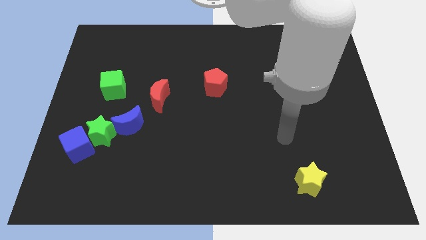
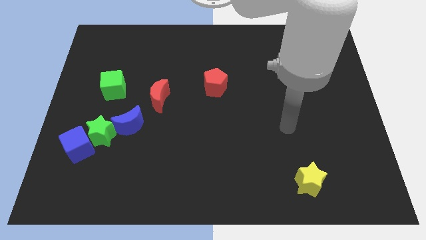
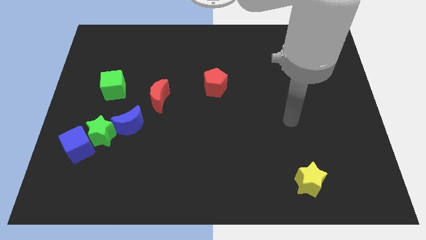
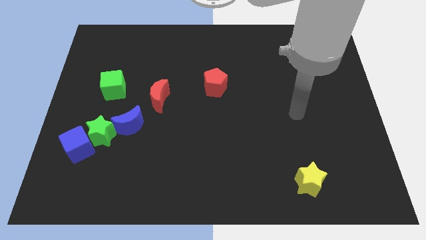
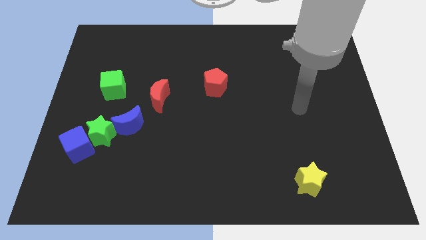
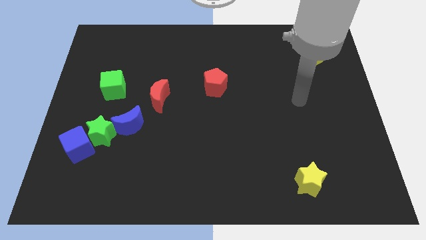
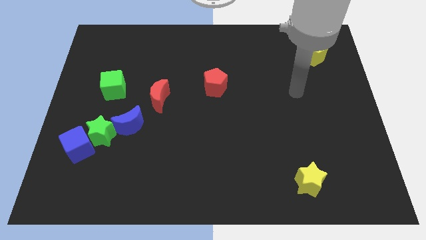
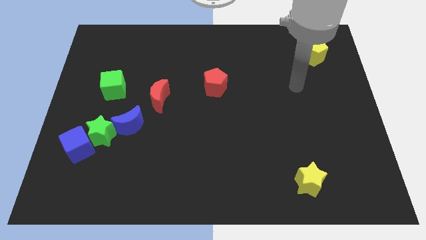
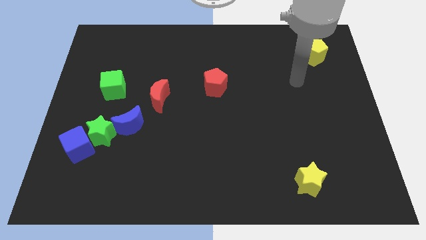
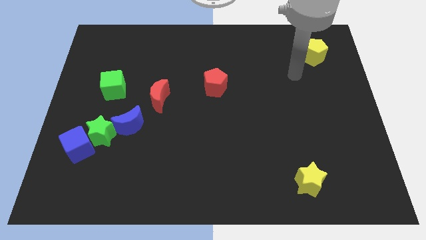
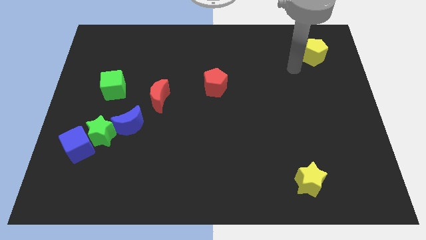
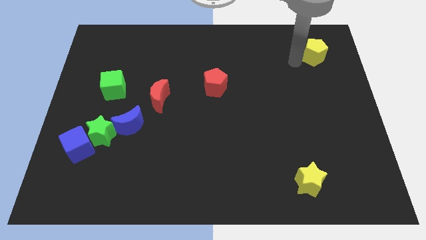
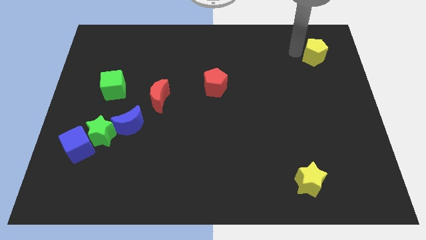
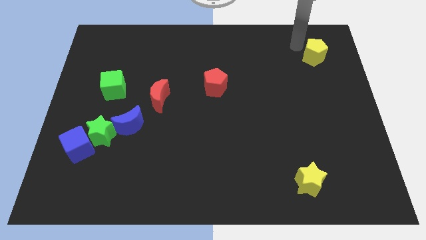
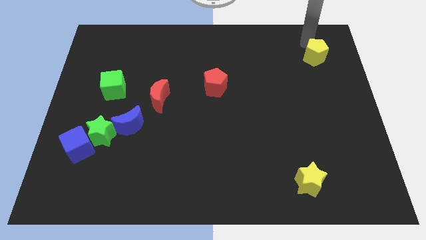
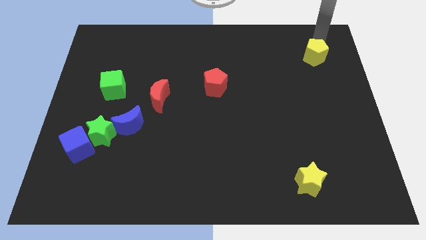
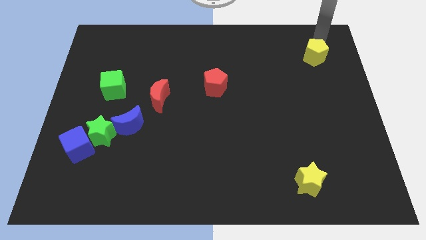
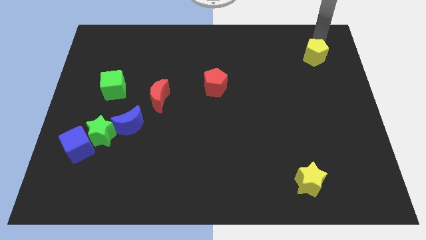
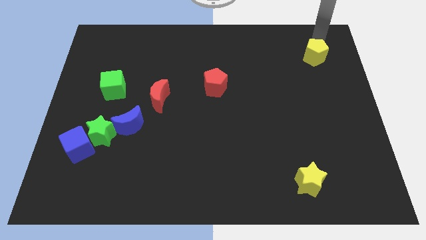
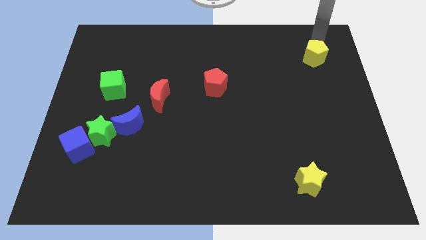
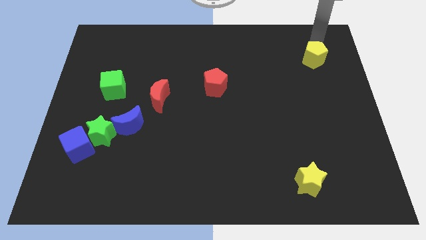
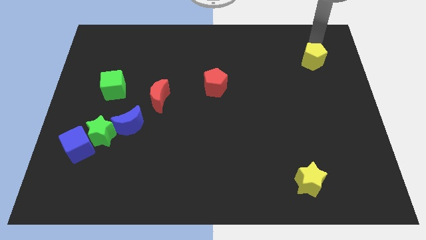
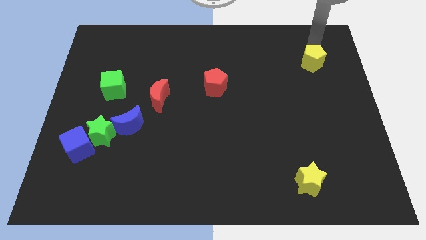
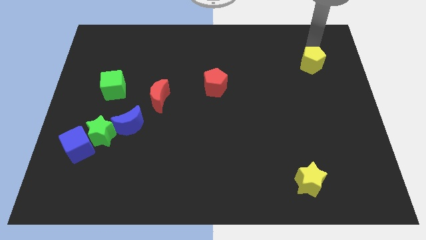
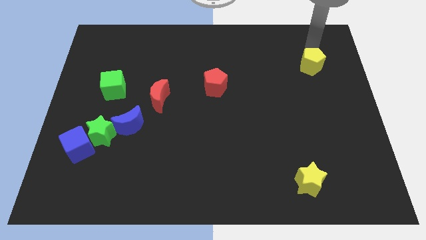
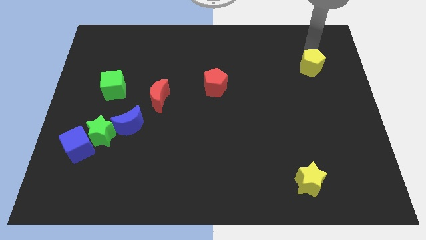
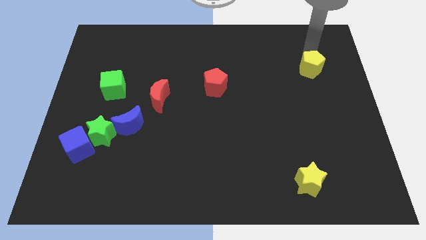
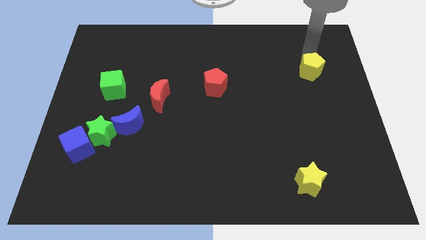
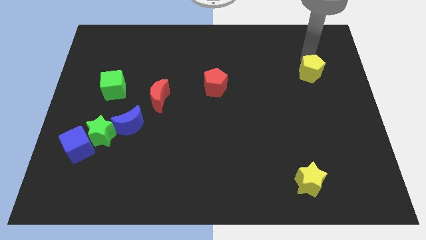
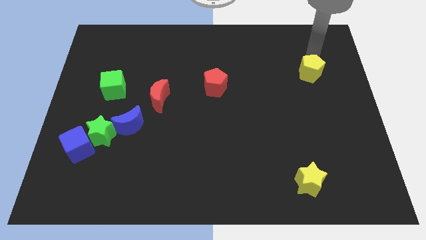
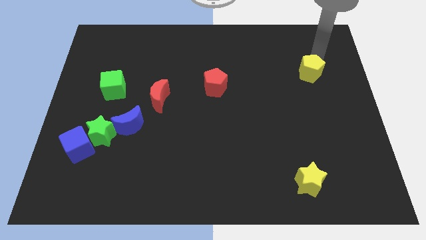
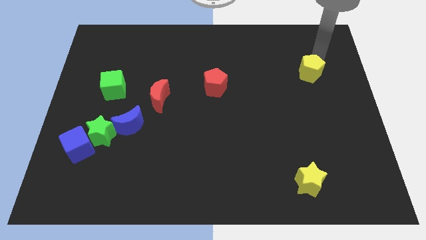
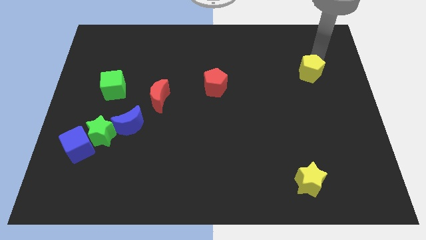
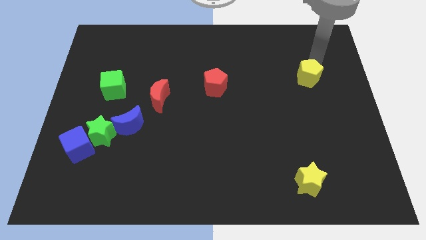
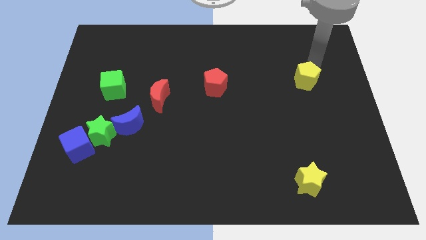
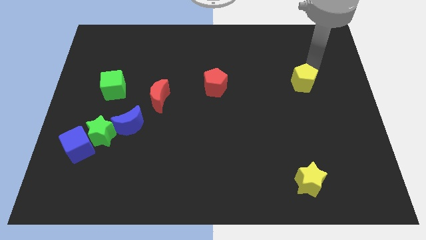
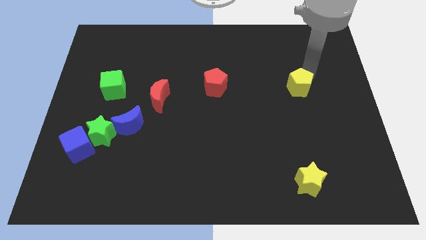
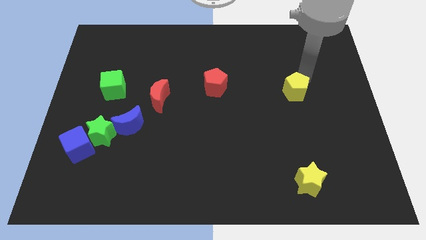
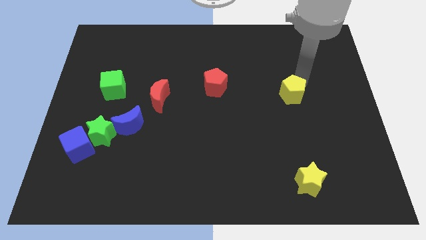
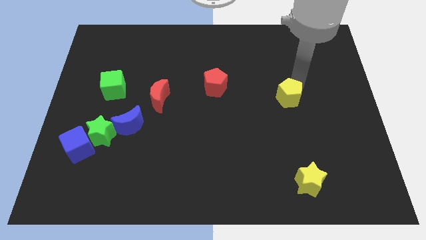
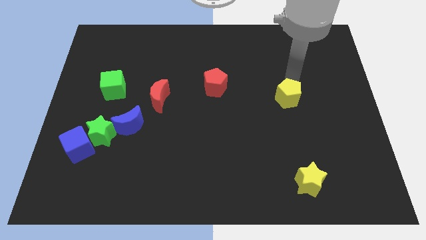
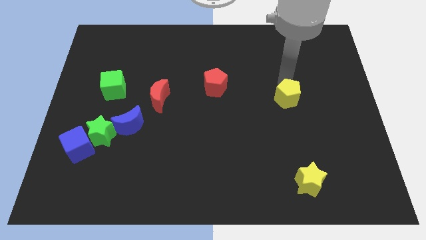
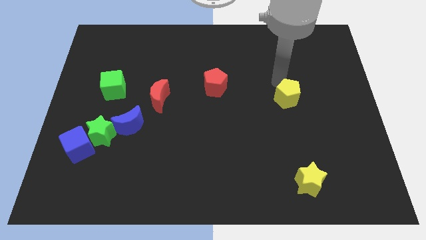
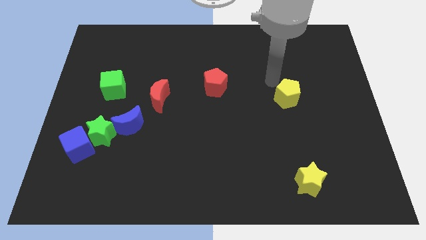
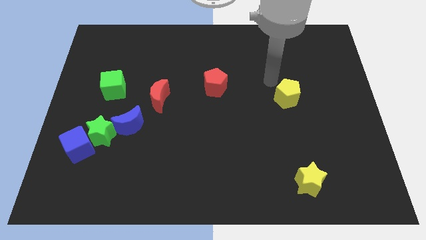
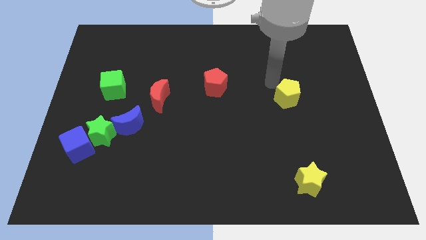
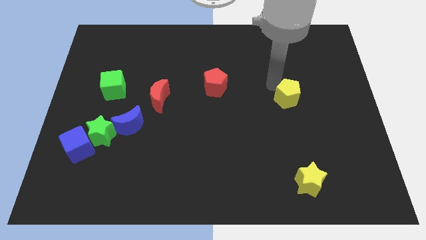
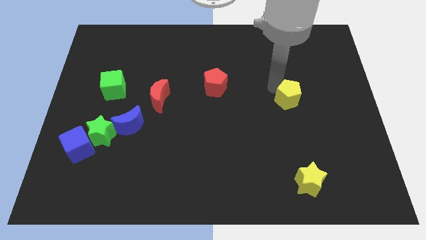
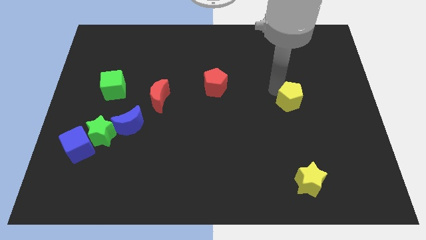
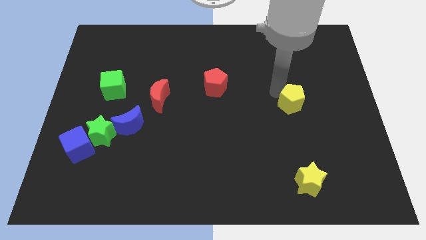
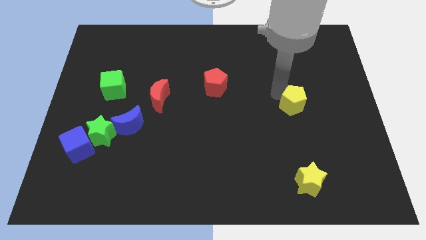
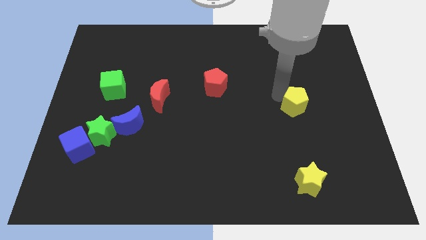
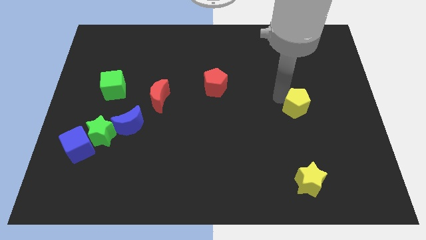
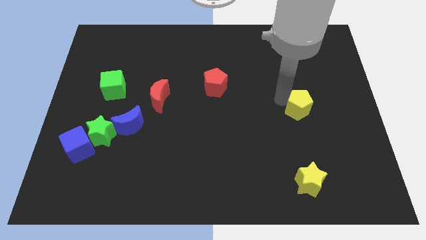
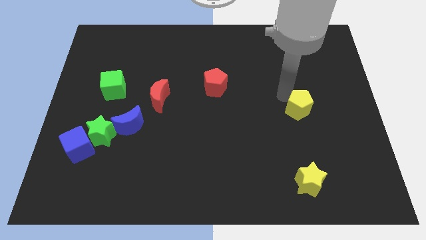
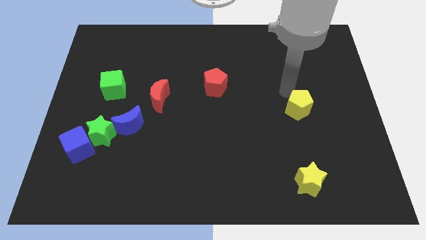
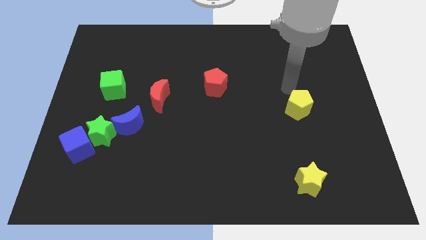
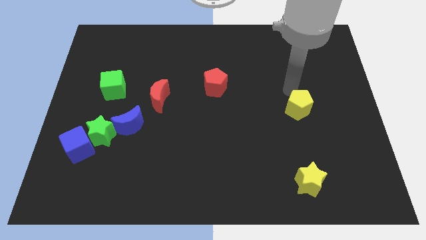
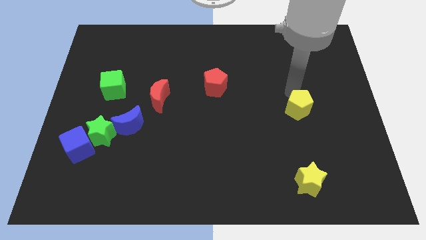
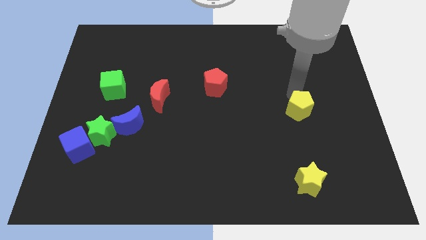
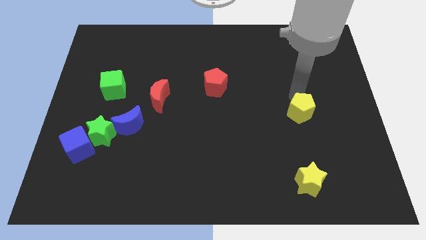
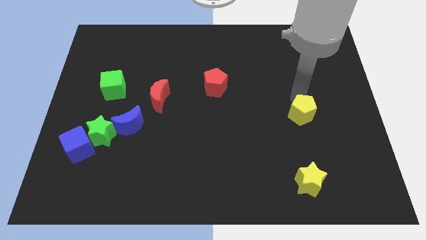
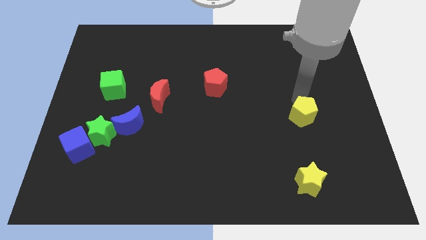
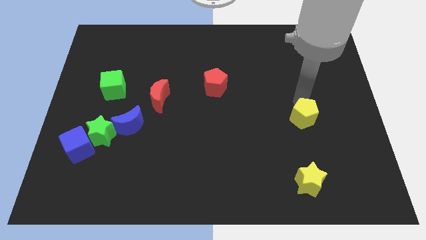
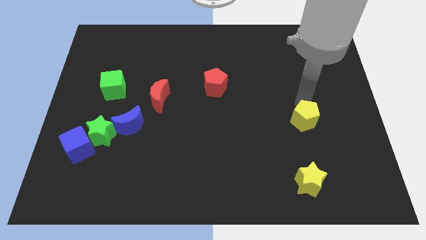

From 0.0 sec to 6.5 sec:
put the yellow pentagon to the top of the yellow star
